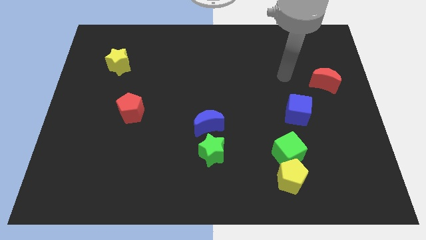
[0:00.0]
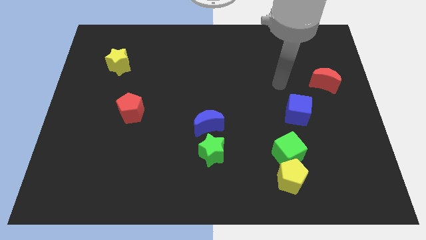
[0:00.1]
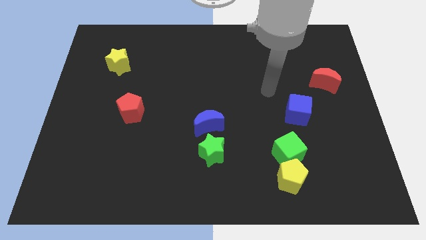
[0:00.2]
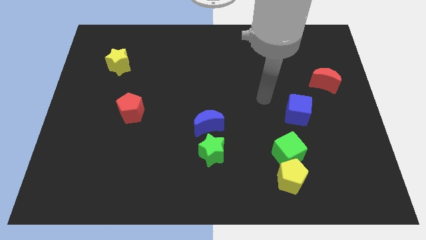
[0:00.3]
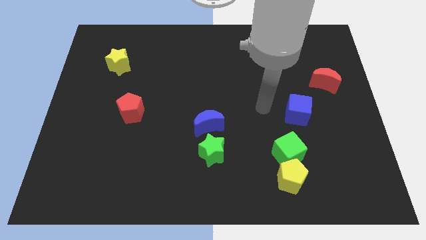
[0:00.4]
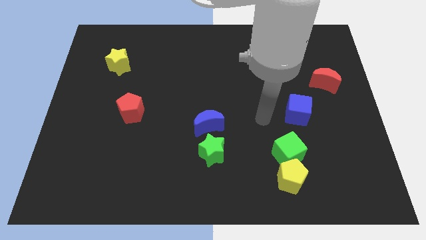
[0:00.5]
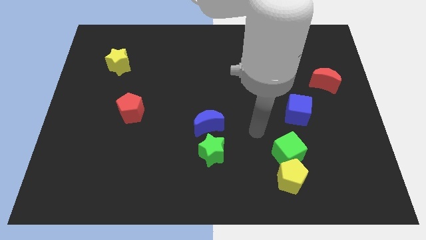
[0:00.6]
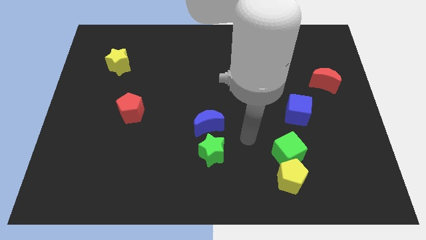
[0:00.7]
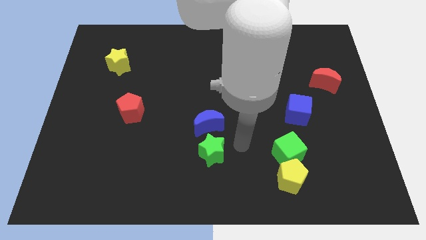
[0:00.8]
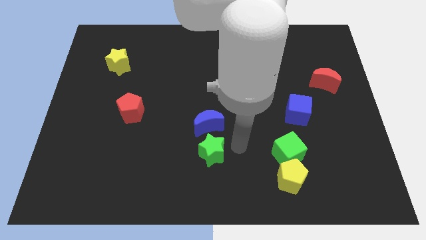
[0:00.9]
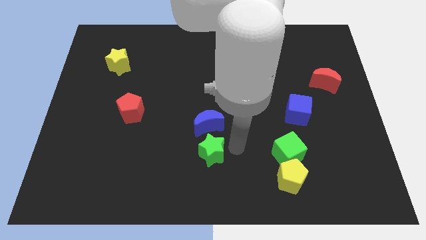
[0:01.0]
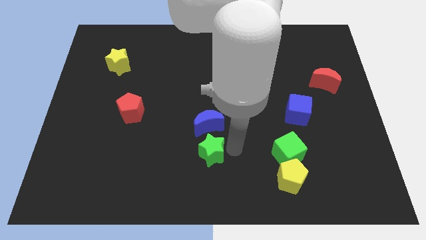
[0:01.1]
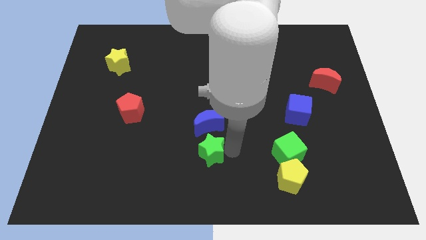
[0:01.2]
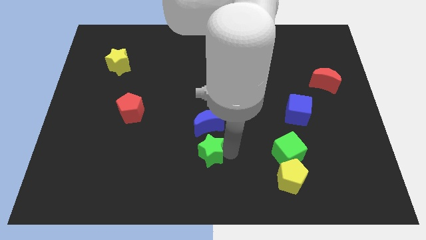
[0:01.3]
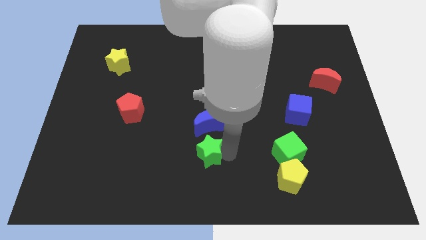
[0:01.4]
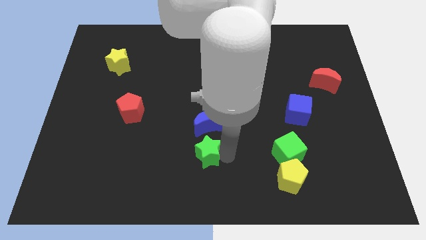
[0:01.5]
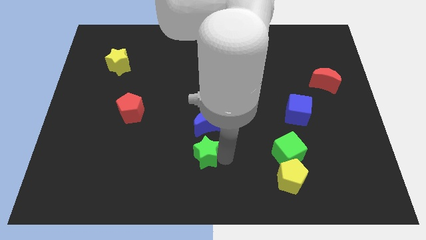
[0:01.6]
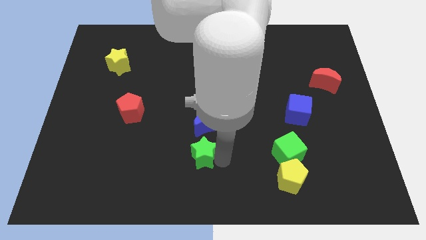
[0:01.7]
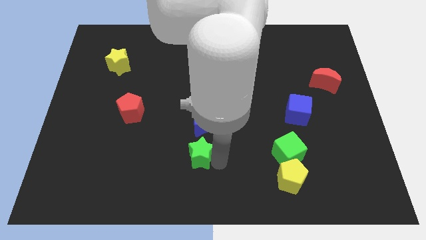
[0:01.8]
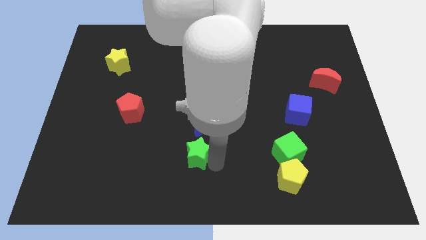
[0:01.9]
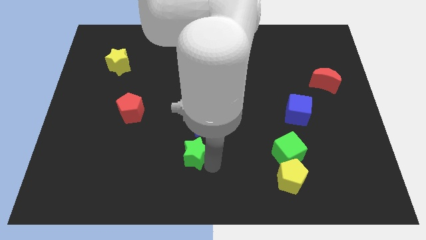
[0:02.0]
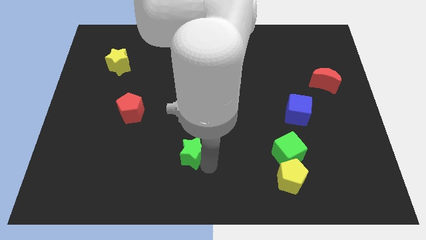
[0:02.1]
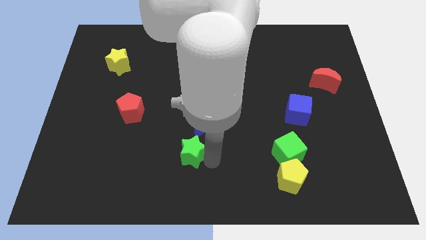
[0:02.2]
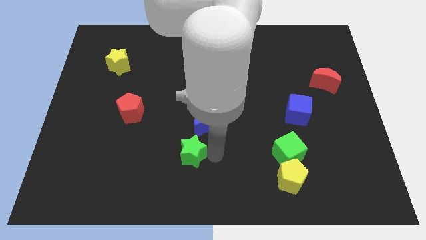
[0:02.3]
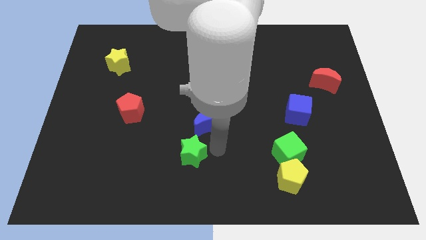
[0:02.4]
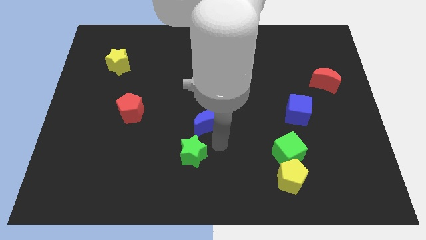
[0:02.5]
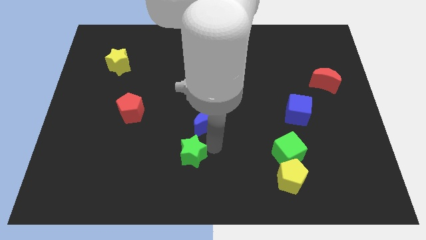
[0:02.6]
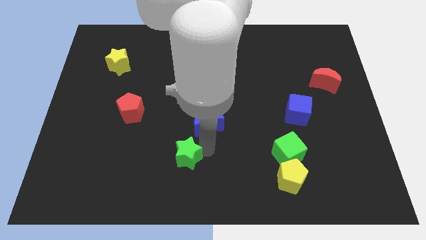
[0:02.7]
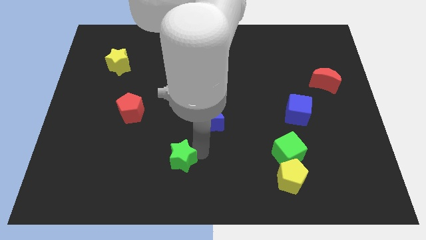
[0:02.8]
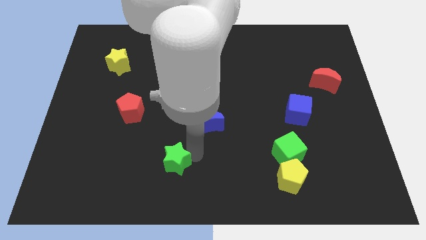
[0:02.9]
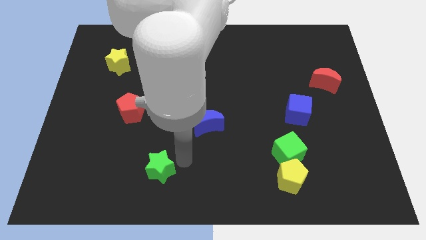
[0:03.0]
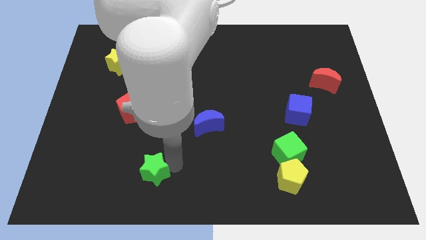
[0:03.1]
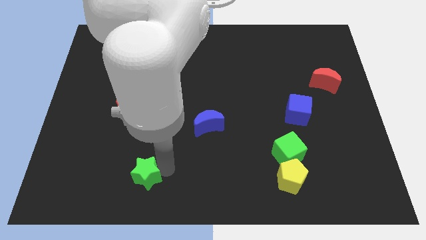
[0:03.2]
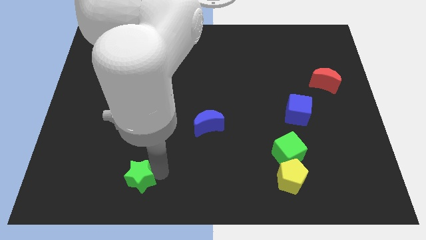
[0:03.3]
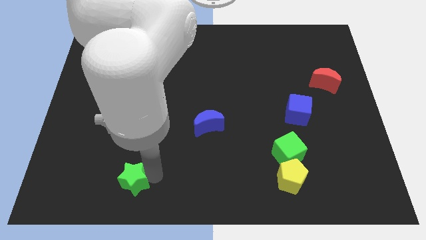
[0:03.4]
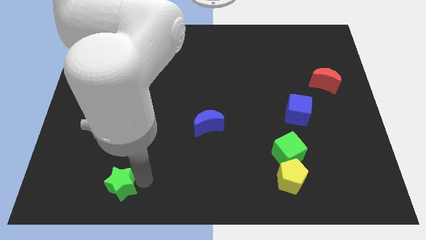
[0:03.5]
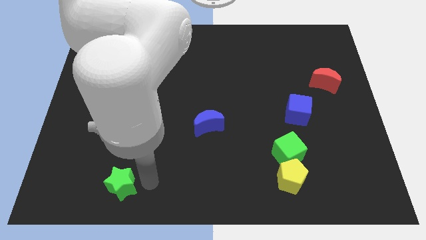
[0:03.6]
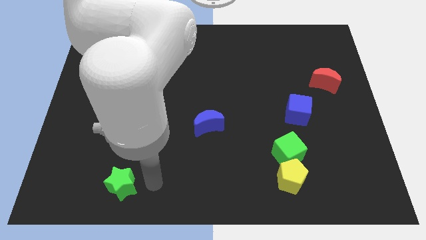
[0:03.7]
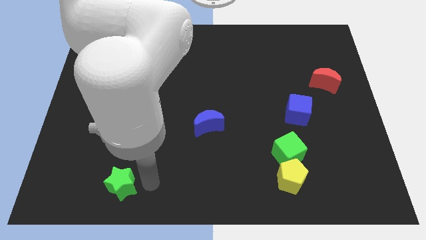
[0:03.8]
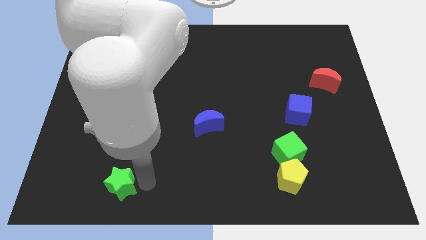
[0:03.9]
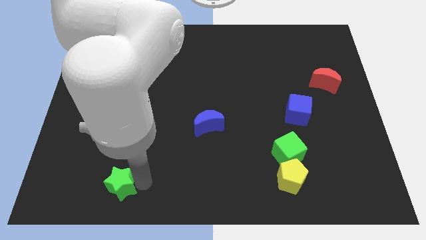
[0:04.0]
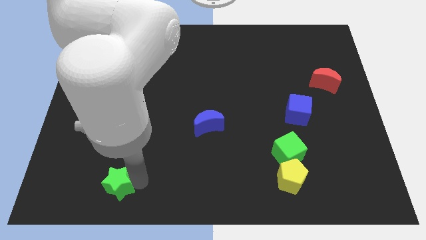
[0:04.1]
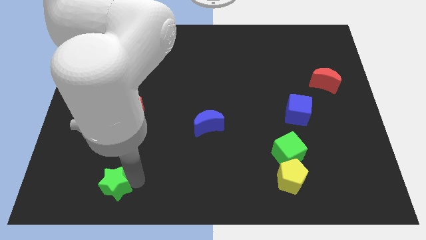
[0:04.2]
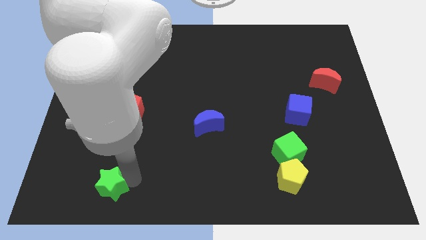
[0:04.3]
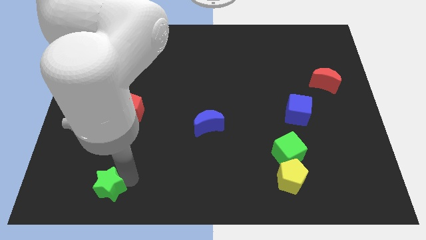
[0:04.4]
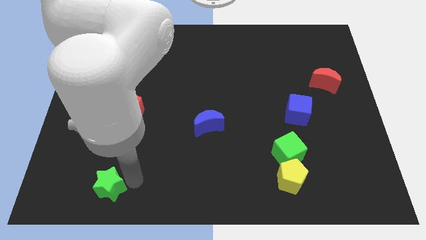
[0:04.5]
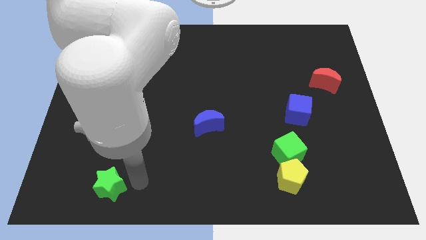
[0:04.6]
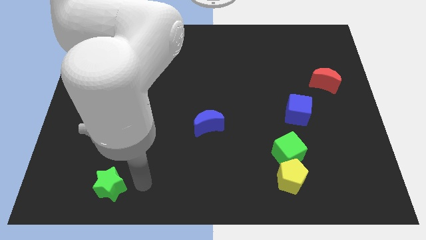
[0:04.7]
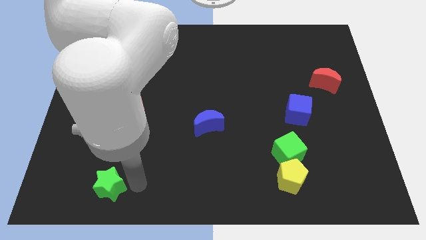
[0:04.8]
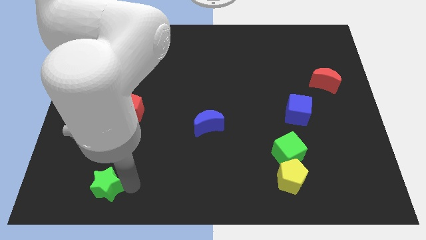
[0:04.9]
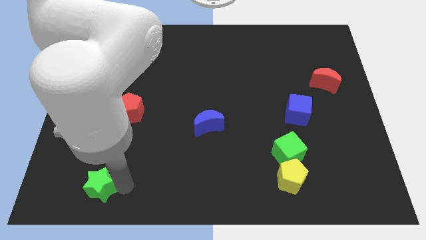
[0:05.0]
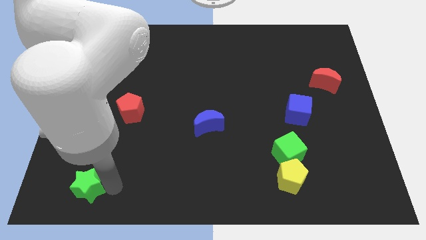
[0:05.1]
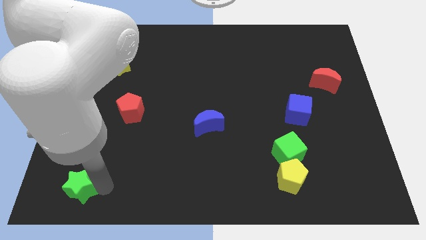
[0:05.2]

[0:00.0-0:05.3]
put the green star to the bottom left corner
